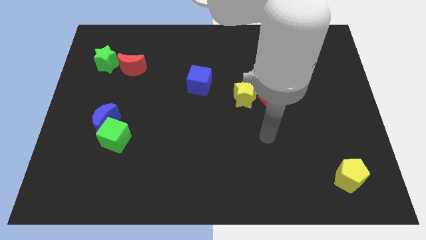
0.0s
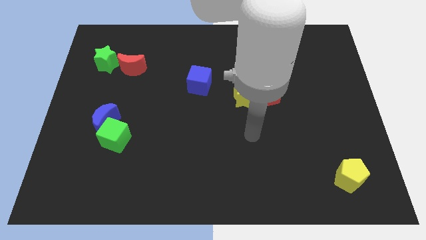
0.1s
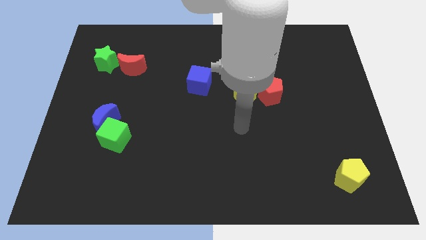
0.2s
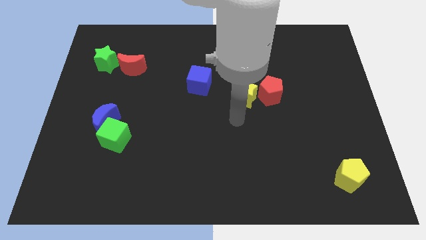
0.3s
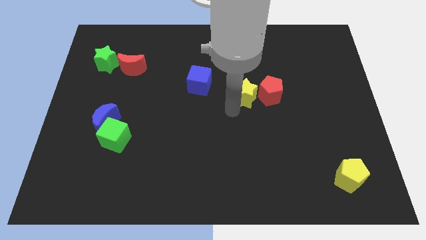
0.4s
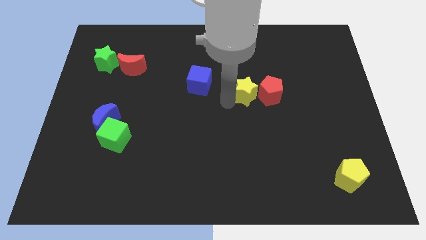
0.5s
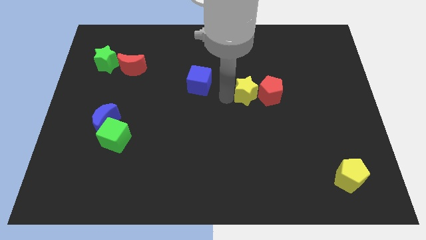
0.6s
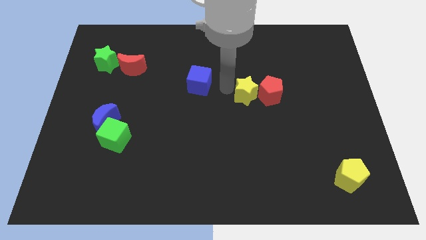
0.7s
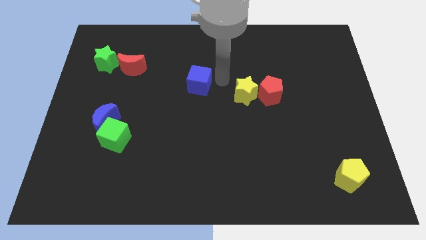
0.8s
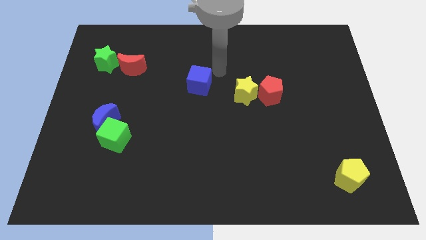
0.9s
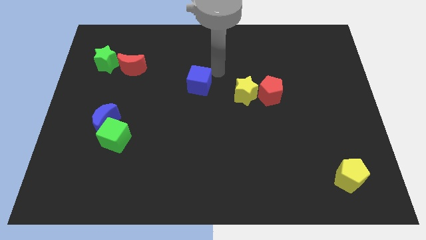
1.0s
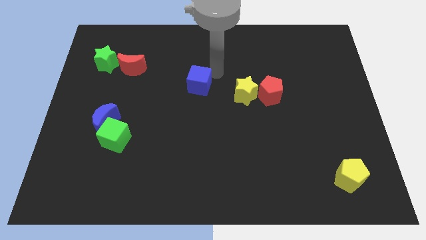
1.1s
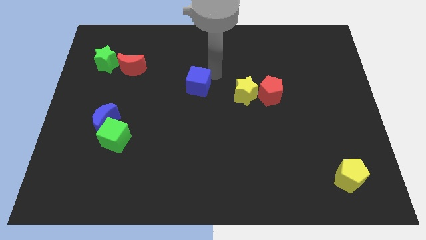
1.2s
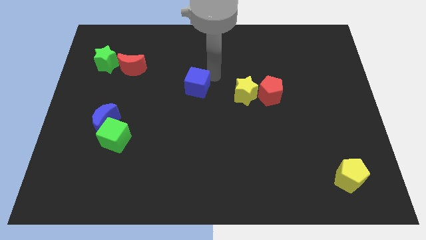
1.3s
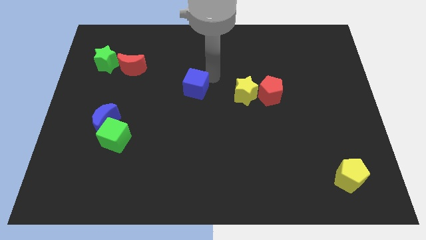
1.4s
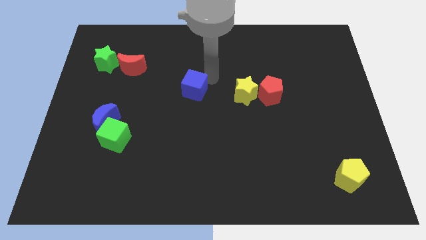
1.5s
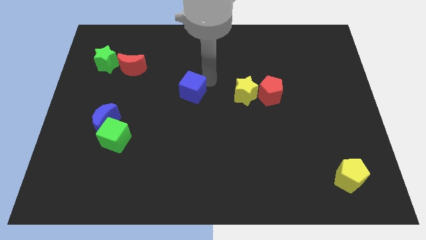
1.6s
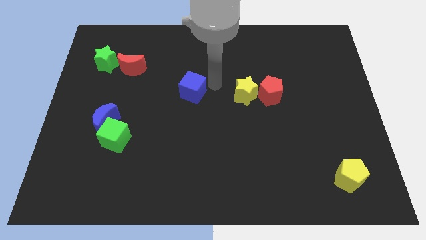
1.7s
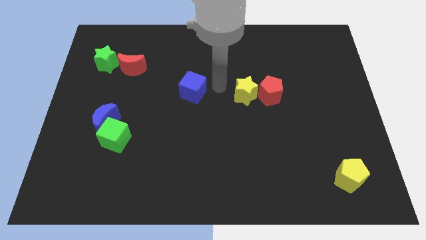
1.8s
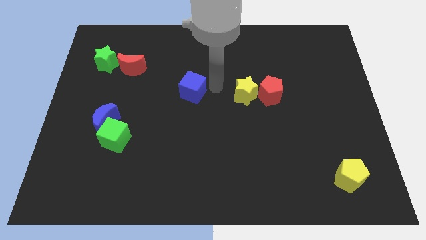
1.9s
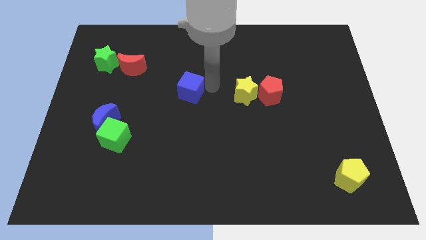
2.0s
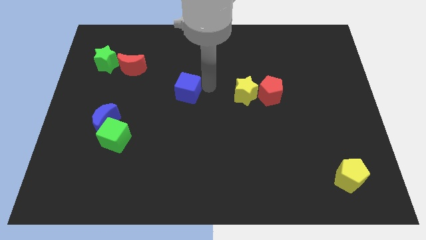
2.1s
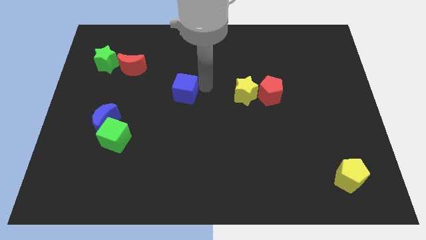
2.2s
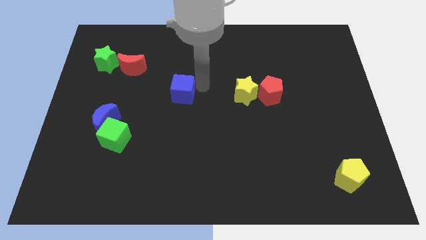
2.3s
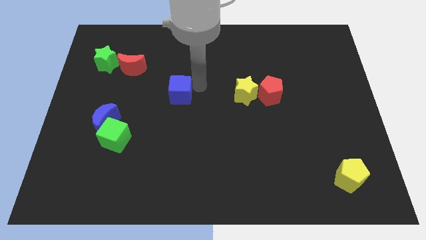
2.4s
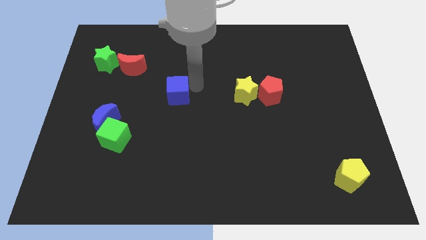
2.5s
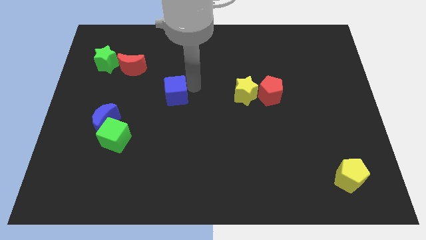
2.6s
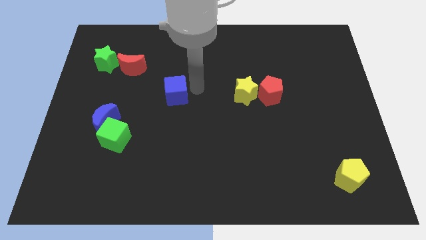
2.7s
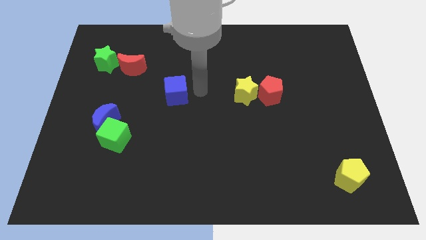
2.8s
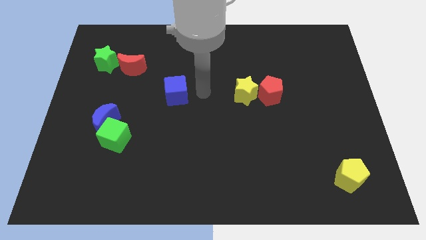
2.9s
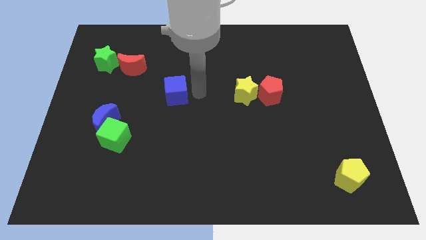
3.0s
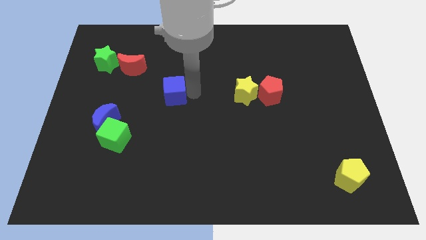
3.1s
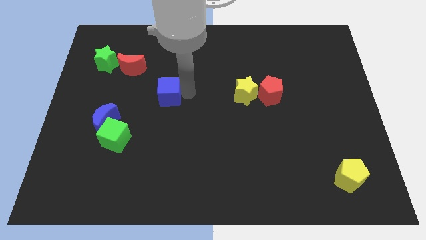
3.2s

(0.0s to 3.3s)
slightly push the blue cube left

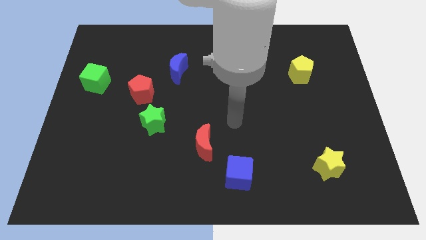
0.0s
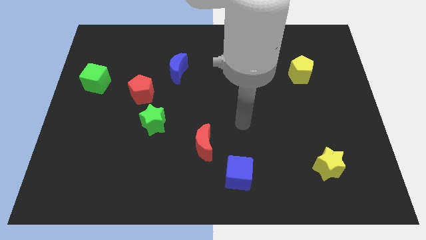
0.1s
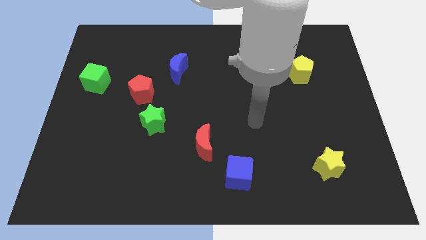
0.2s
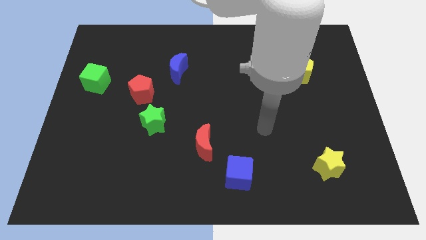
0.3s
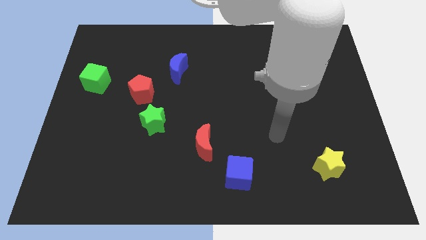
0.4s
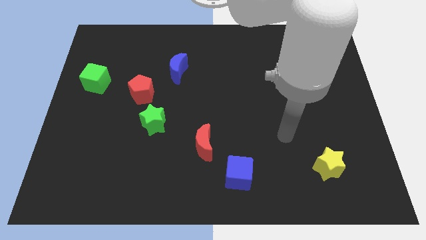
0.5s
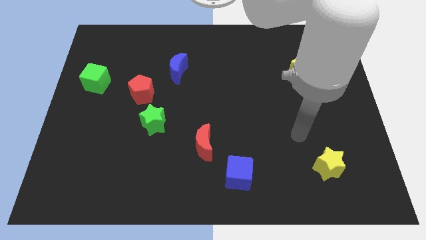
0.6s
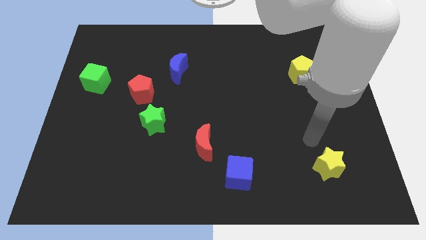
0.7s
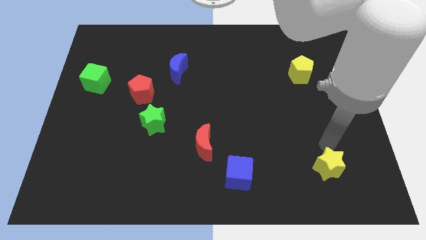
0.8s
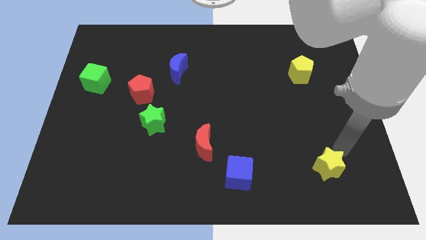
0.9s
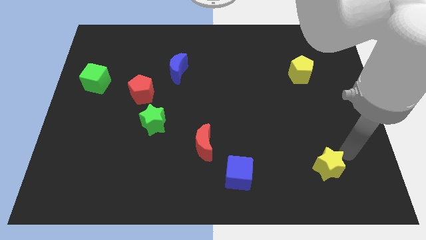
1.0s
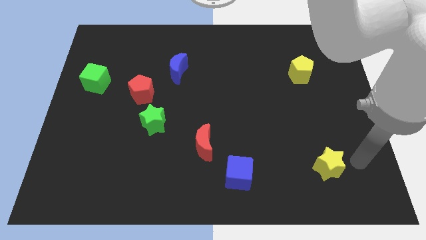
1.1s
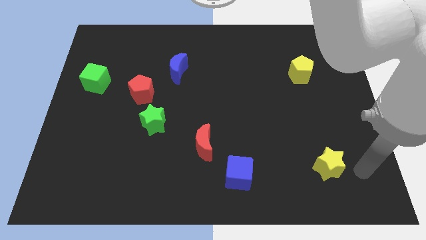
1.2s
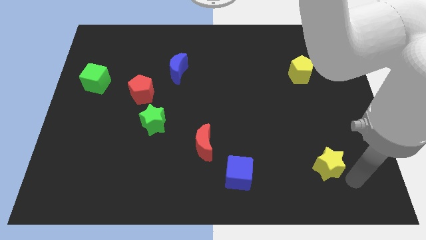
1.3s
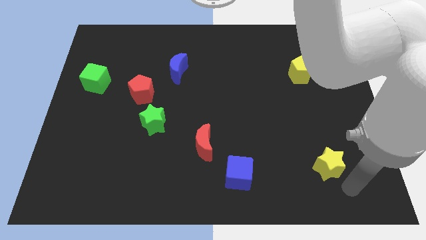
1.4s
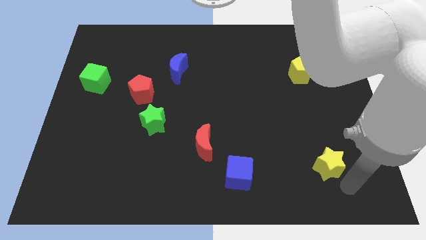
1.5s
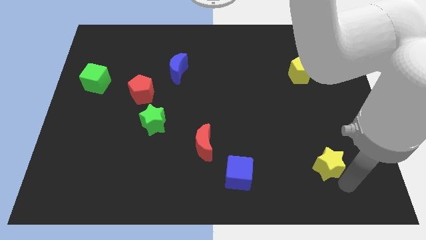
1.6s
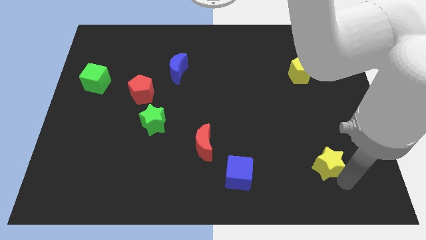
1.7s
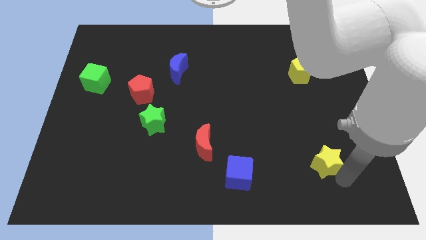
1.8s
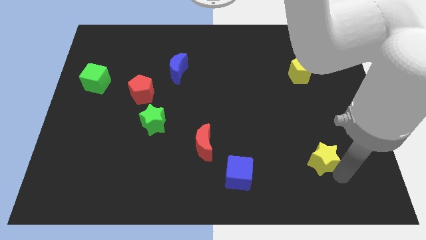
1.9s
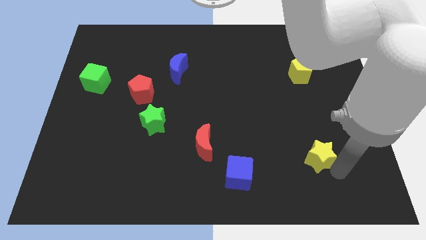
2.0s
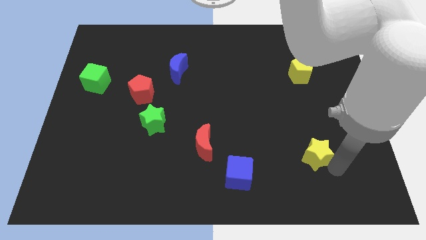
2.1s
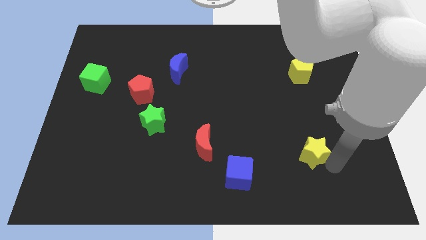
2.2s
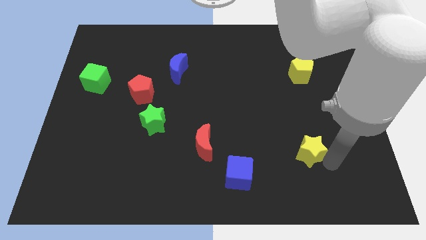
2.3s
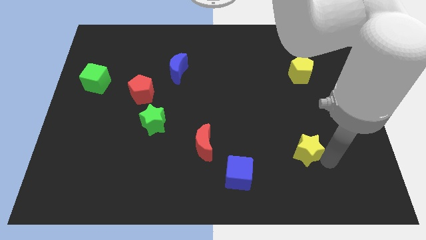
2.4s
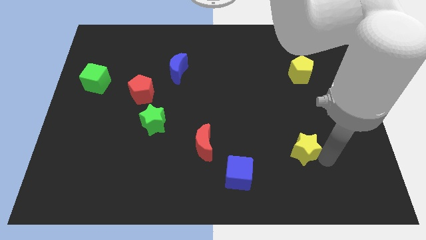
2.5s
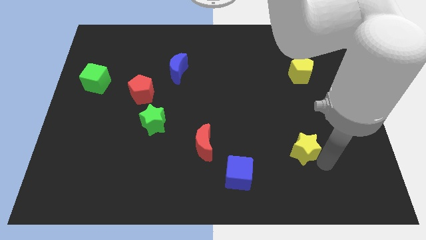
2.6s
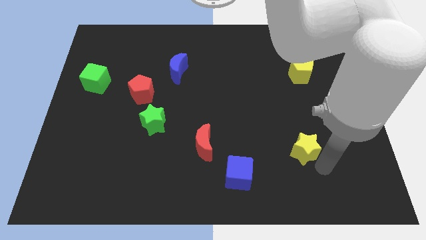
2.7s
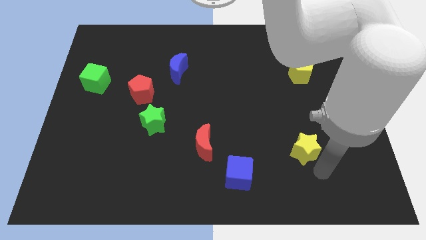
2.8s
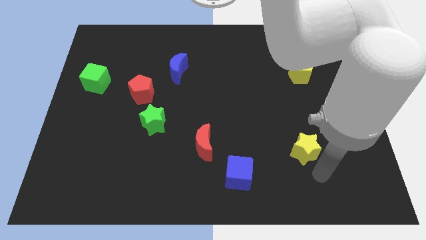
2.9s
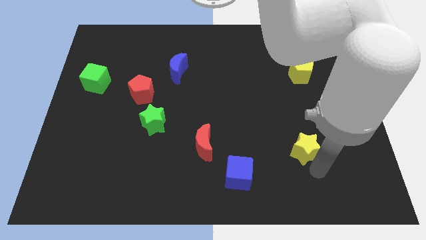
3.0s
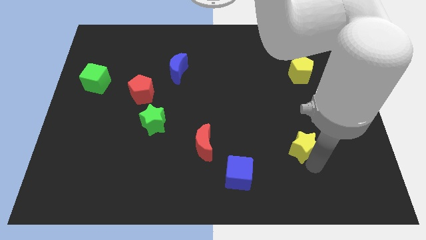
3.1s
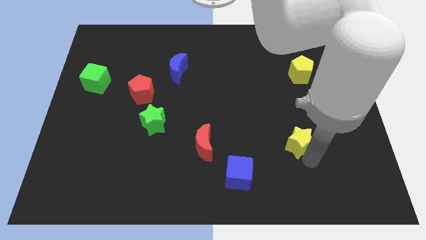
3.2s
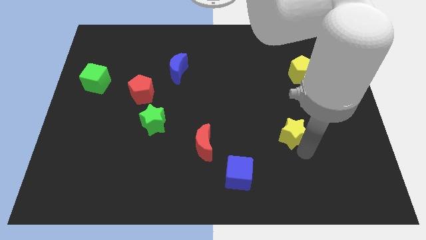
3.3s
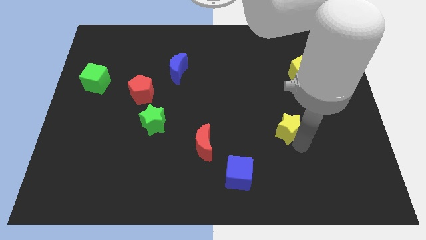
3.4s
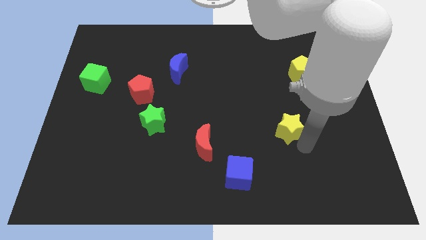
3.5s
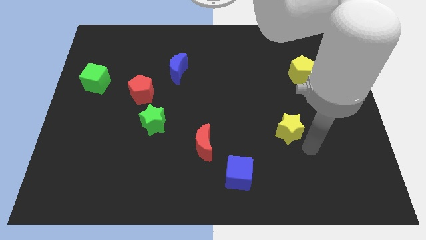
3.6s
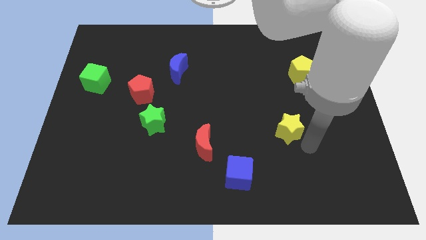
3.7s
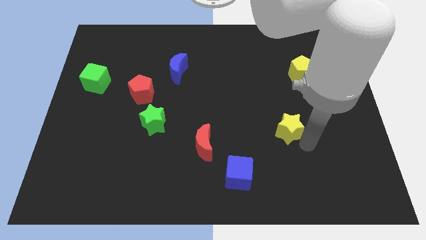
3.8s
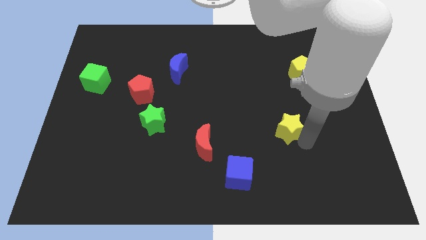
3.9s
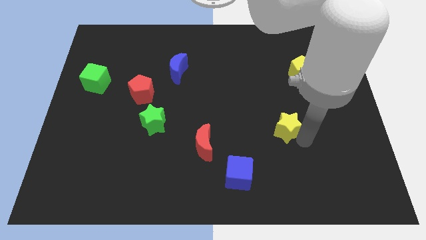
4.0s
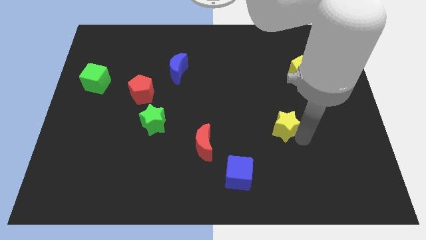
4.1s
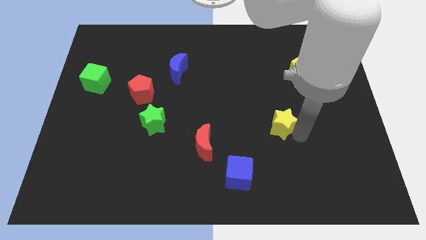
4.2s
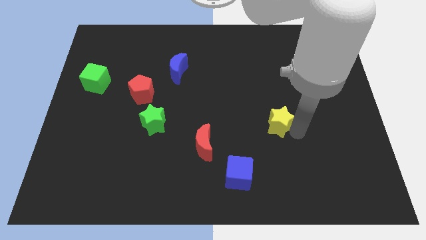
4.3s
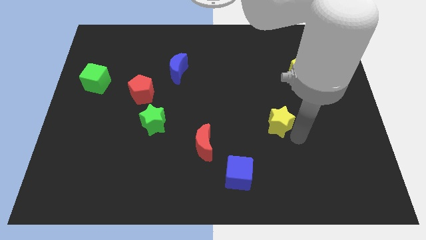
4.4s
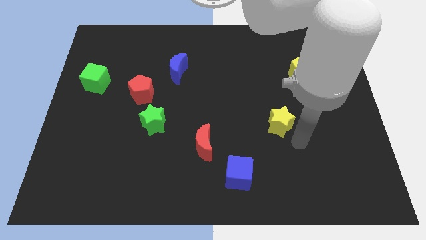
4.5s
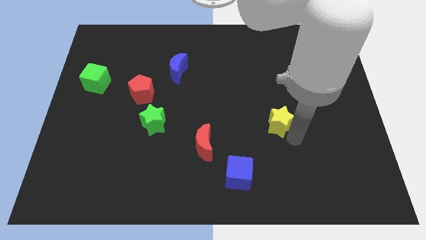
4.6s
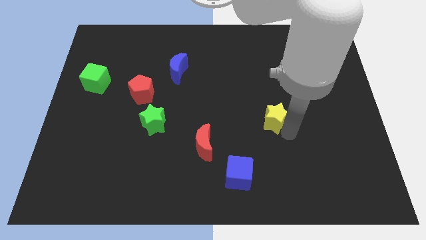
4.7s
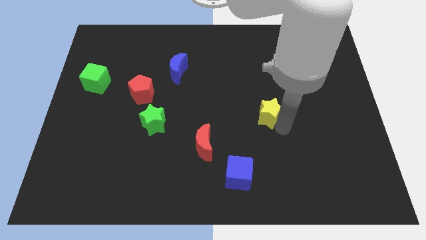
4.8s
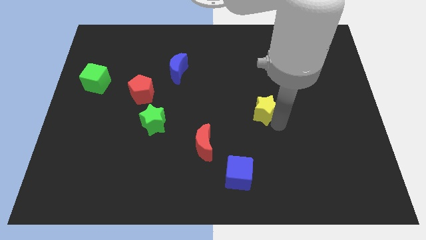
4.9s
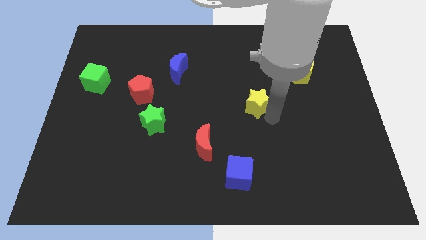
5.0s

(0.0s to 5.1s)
slide the yellow star up and to the left

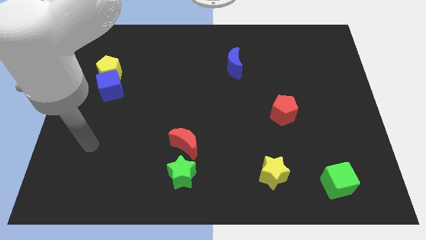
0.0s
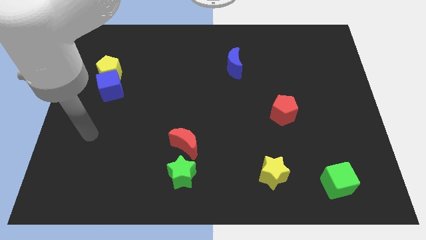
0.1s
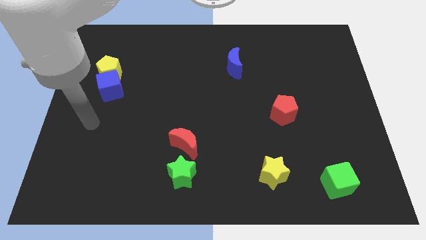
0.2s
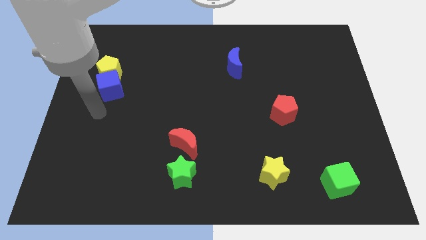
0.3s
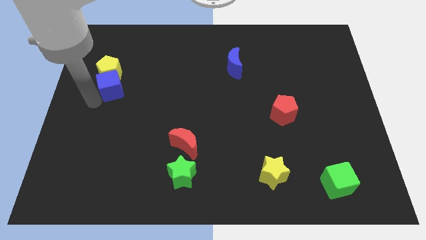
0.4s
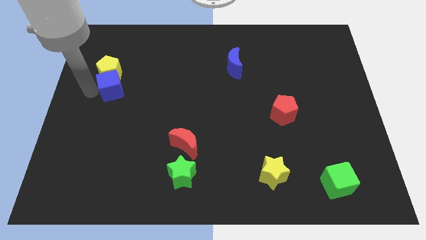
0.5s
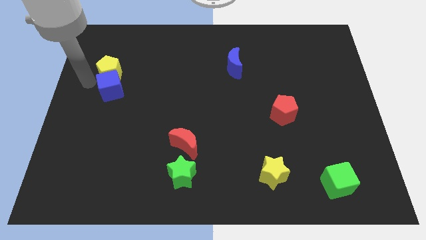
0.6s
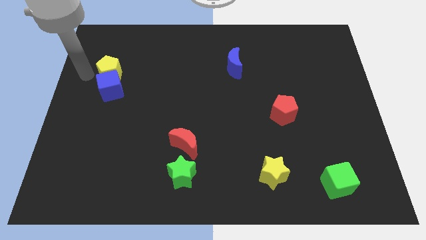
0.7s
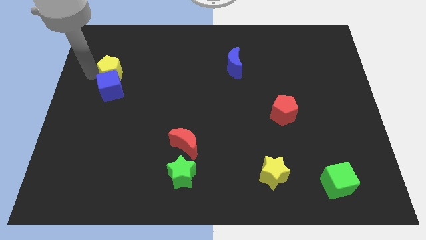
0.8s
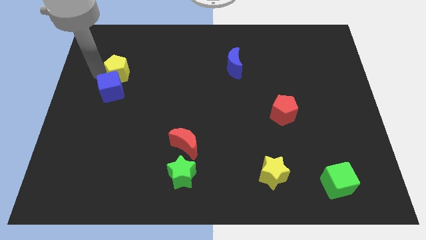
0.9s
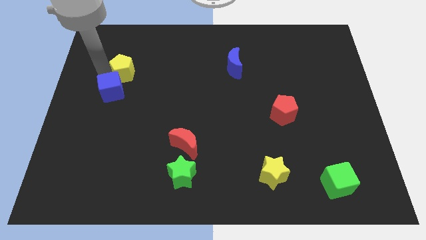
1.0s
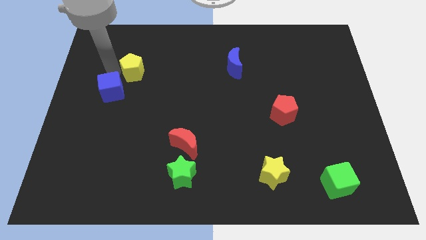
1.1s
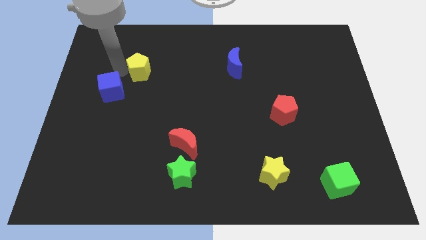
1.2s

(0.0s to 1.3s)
slightly push the yellow pentagon to the right
